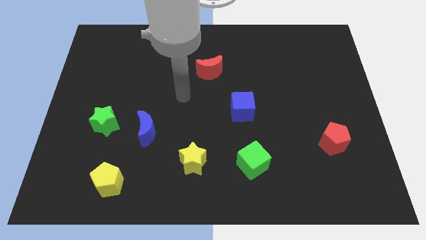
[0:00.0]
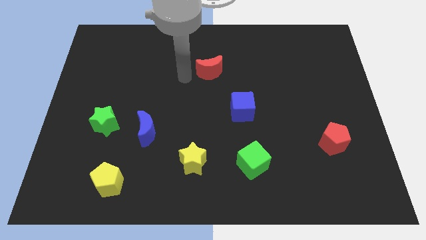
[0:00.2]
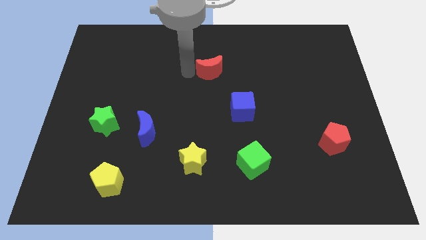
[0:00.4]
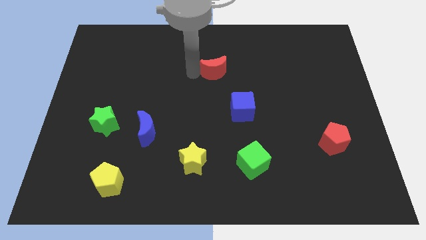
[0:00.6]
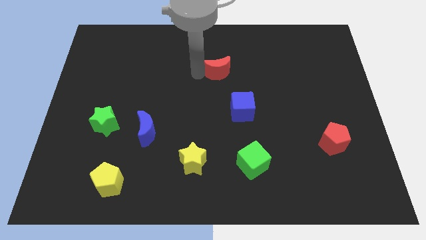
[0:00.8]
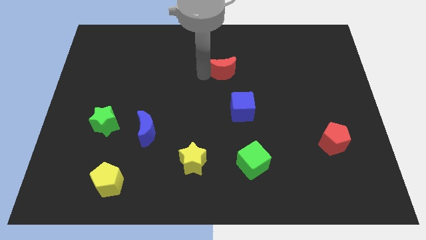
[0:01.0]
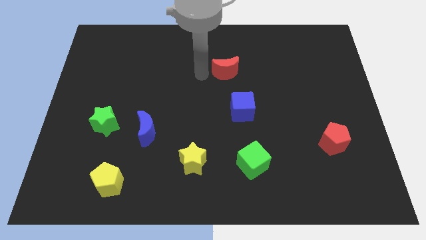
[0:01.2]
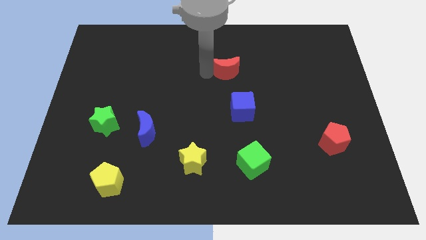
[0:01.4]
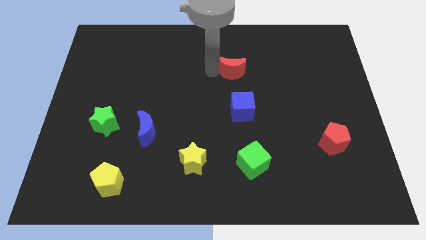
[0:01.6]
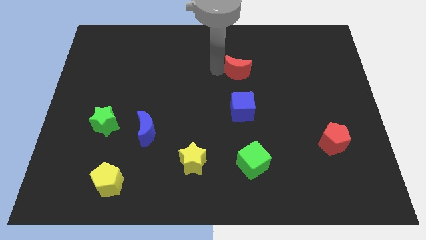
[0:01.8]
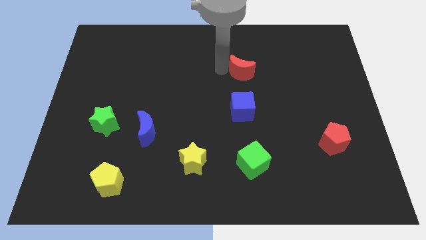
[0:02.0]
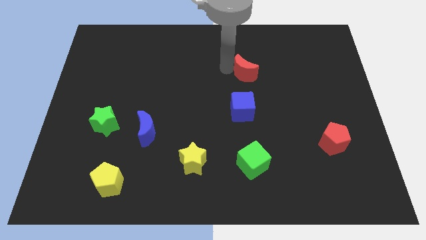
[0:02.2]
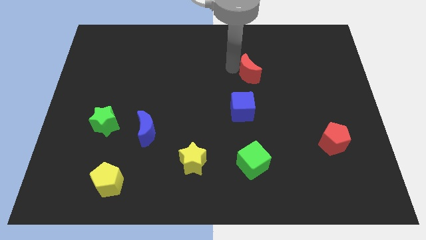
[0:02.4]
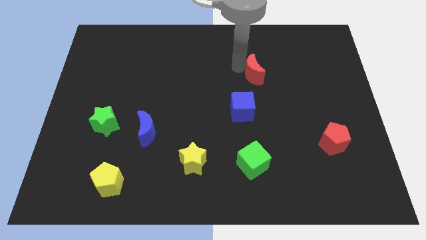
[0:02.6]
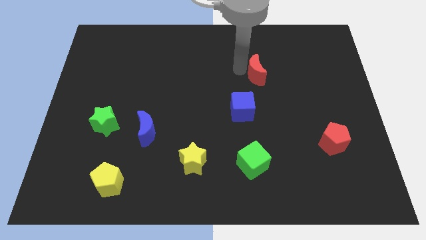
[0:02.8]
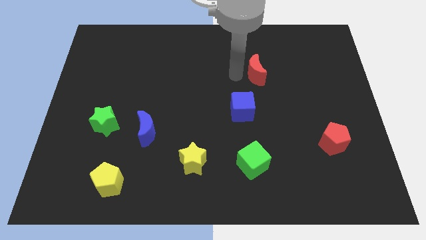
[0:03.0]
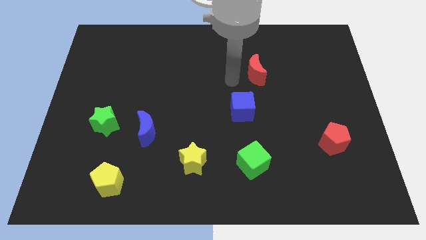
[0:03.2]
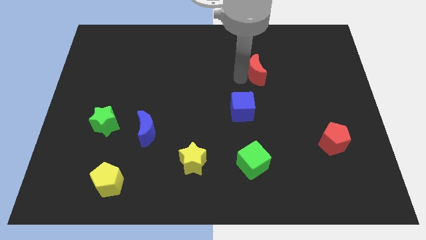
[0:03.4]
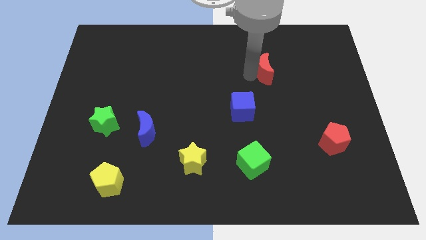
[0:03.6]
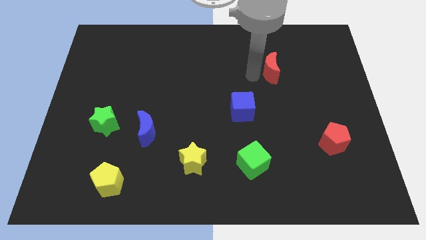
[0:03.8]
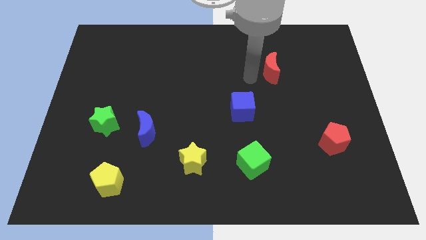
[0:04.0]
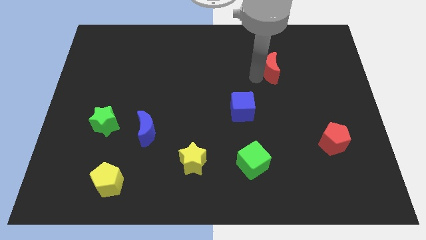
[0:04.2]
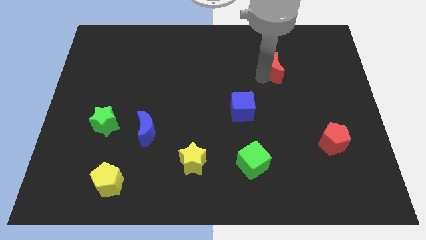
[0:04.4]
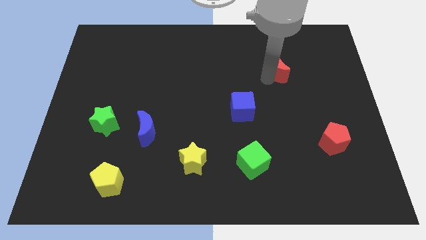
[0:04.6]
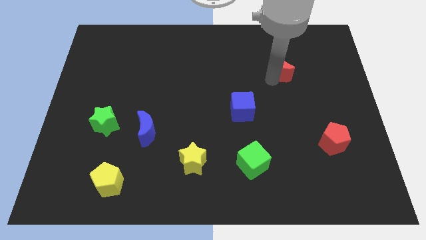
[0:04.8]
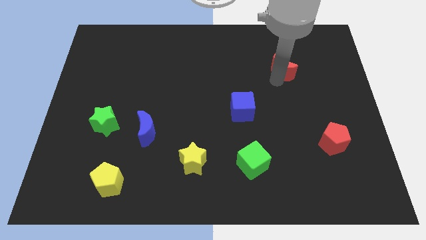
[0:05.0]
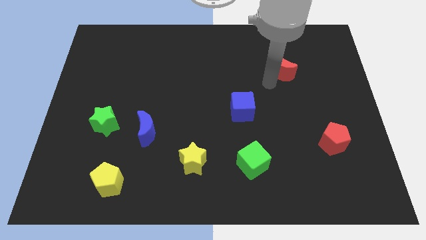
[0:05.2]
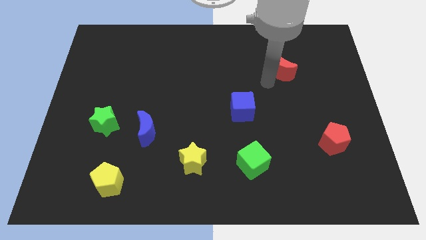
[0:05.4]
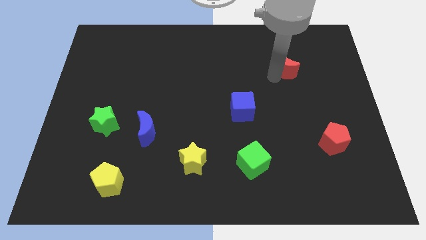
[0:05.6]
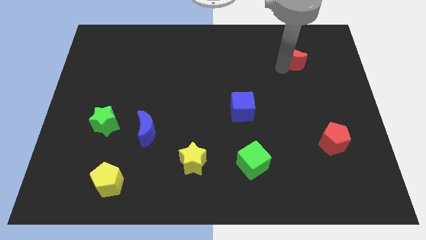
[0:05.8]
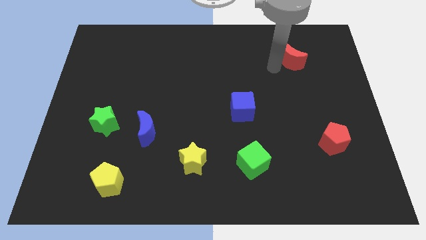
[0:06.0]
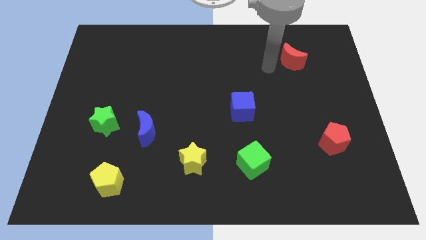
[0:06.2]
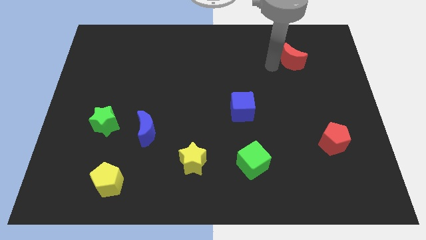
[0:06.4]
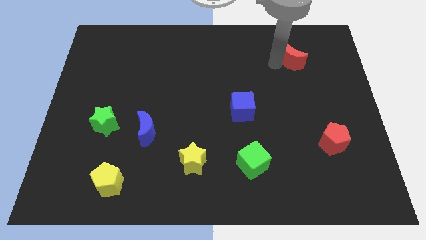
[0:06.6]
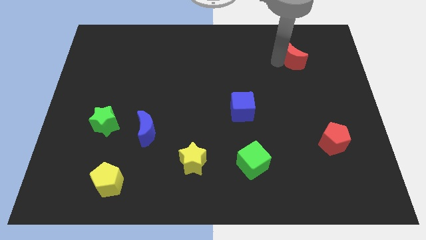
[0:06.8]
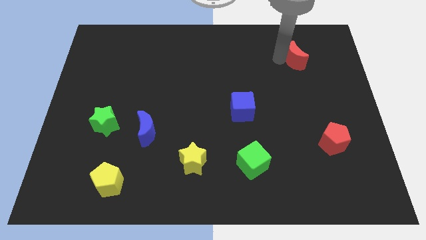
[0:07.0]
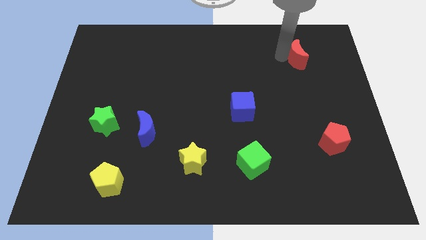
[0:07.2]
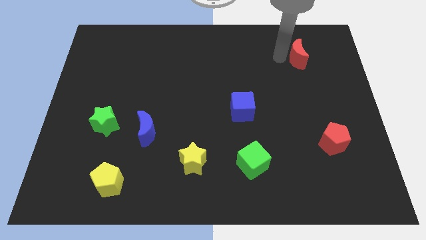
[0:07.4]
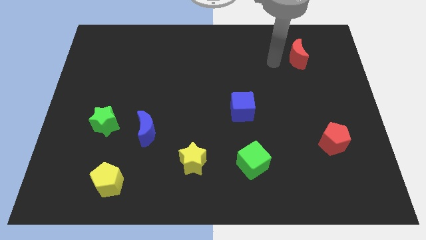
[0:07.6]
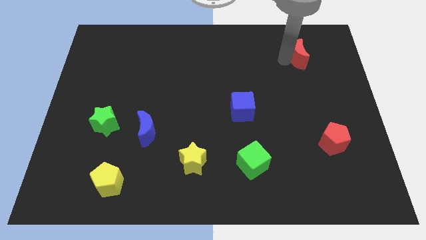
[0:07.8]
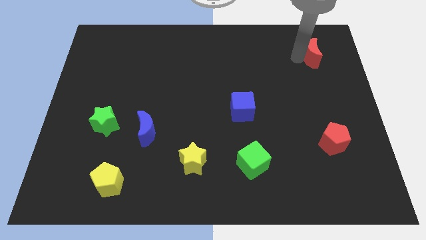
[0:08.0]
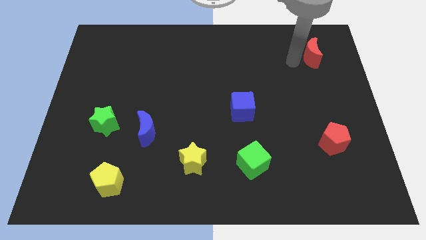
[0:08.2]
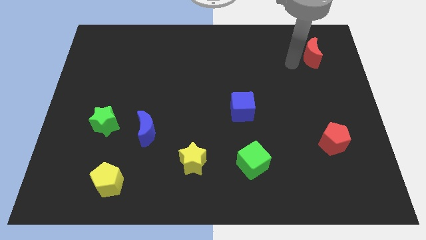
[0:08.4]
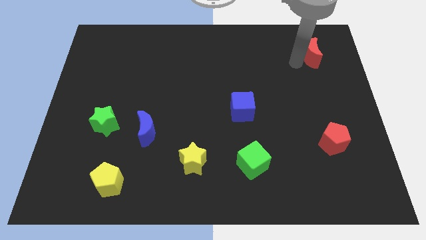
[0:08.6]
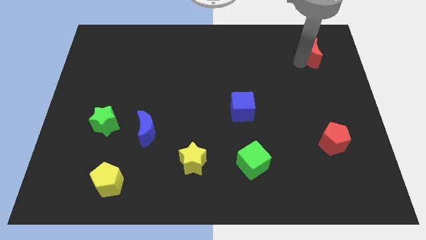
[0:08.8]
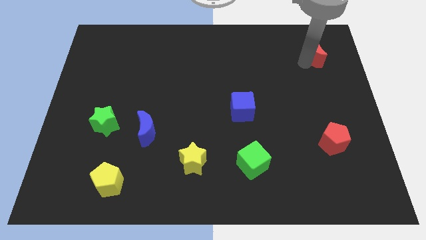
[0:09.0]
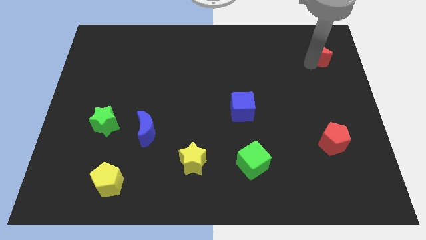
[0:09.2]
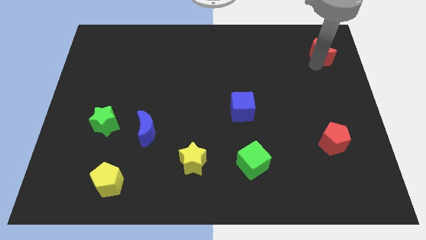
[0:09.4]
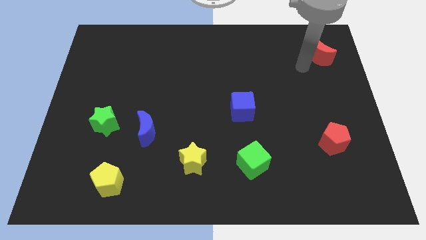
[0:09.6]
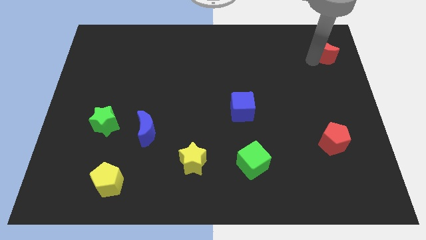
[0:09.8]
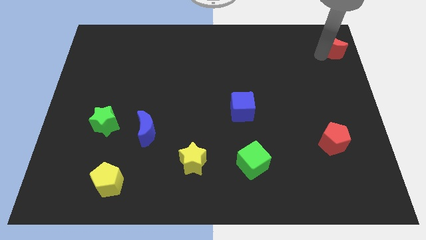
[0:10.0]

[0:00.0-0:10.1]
put the red moon to the top right of the board

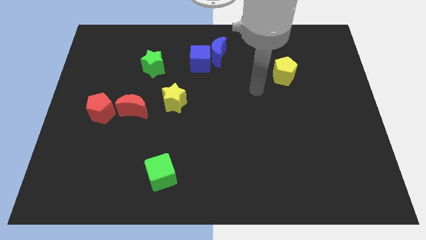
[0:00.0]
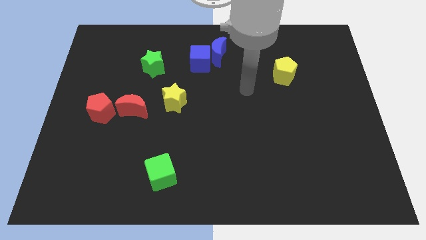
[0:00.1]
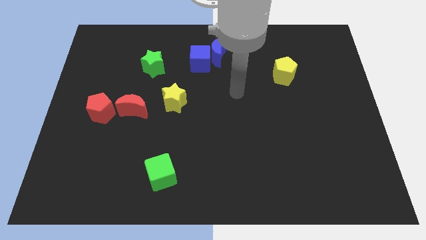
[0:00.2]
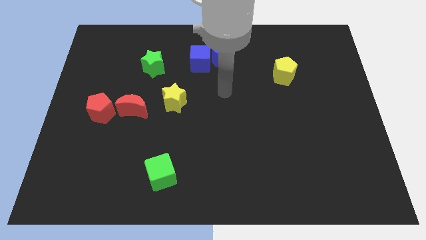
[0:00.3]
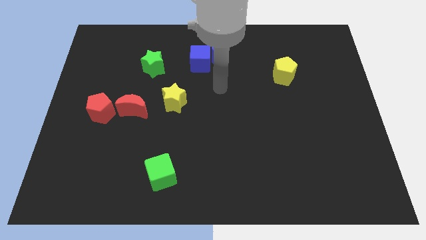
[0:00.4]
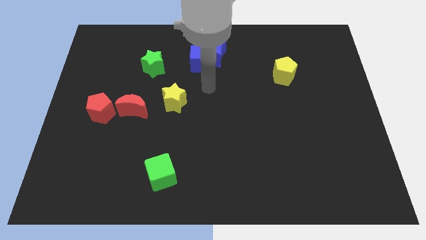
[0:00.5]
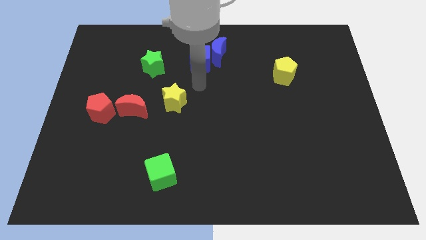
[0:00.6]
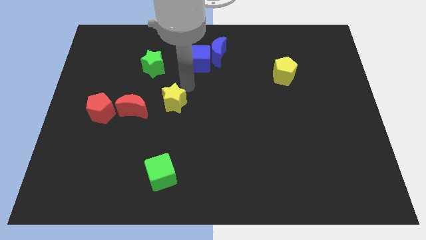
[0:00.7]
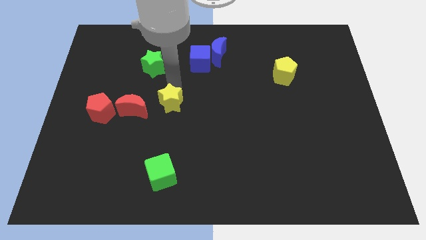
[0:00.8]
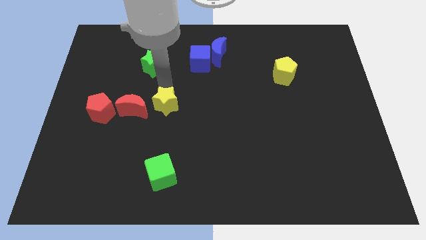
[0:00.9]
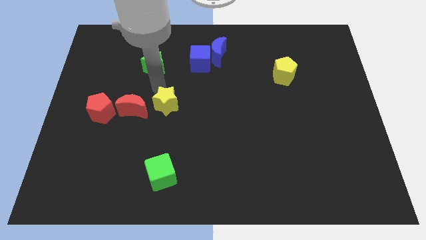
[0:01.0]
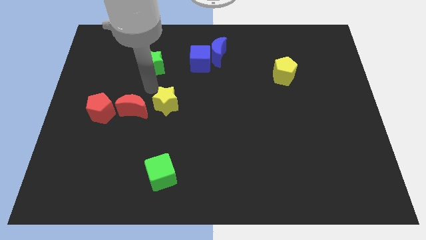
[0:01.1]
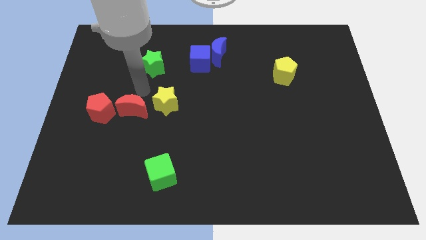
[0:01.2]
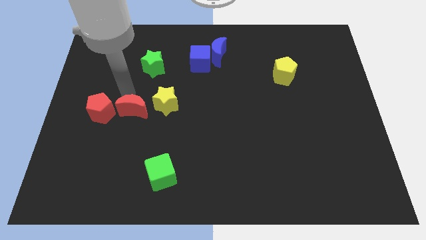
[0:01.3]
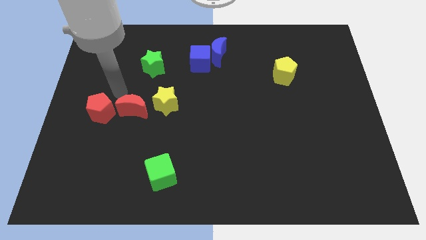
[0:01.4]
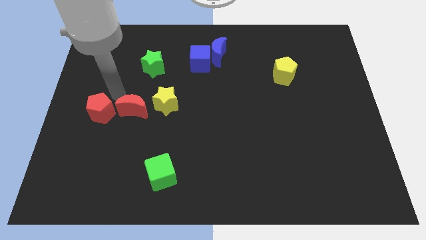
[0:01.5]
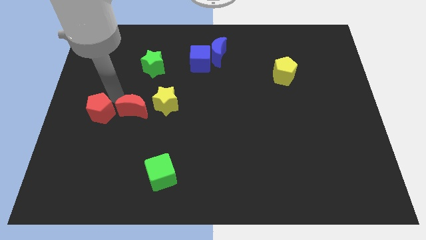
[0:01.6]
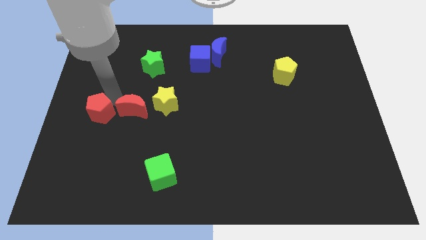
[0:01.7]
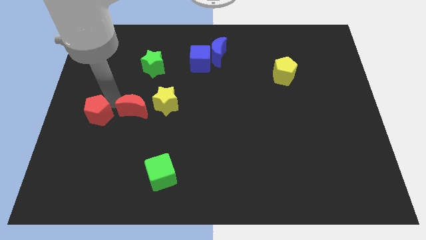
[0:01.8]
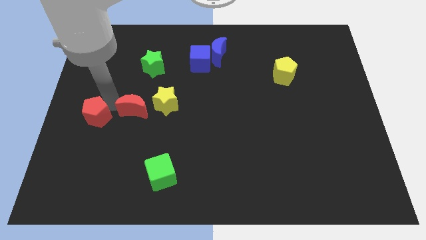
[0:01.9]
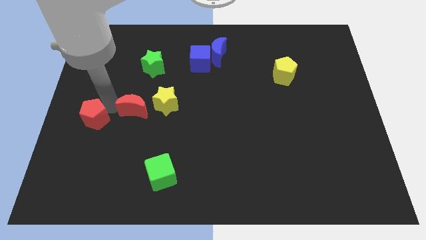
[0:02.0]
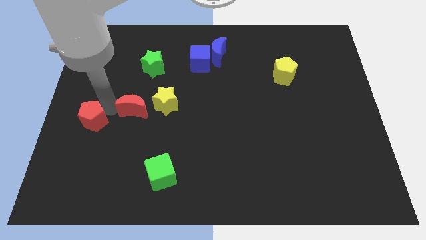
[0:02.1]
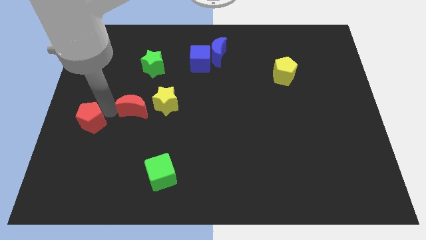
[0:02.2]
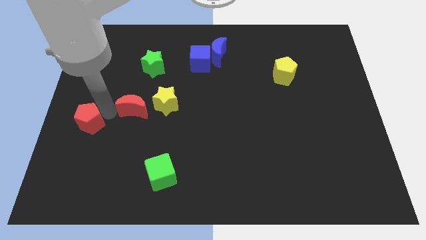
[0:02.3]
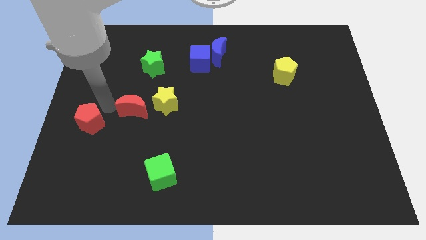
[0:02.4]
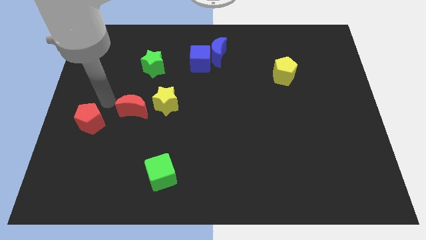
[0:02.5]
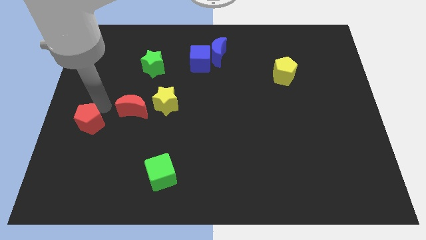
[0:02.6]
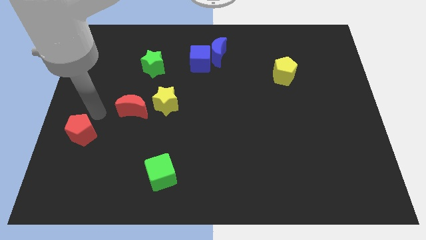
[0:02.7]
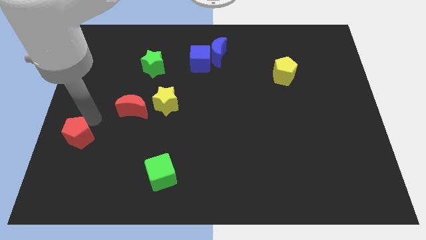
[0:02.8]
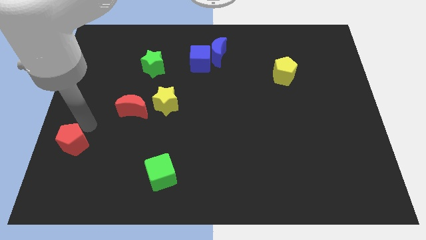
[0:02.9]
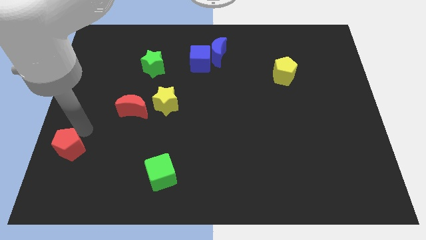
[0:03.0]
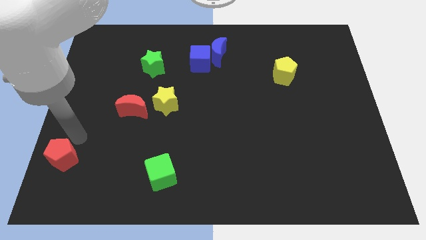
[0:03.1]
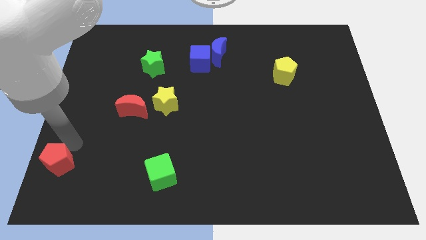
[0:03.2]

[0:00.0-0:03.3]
move the red pentagon to the bottom left
